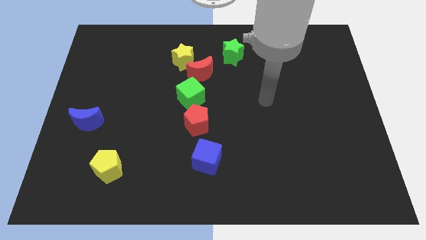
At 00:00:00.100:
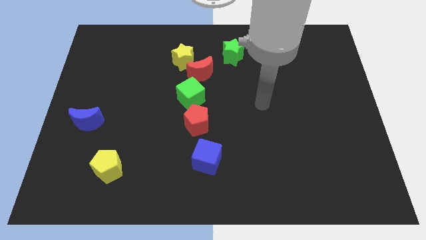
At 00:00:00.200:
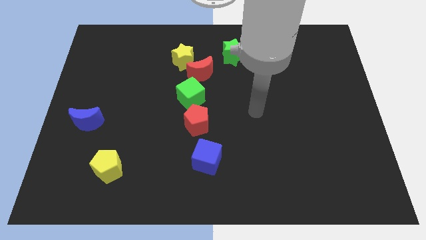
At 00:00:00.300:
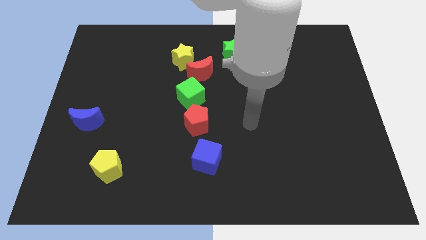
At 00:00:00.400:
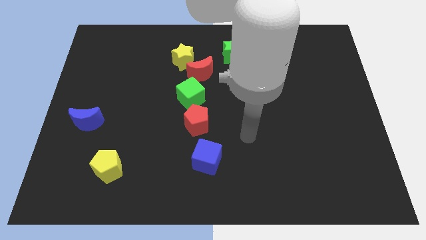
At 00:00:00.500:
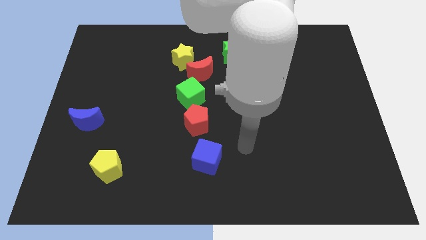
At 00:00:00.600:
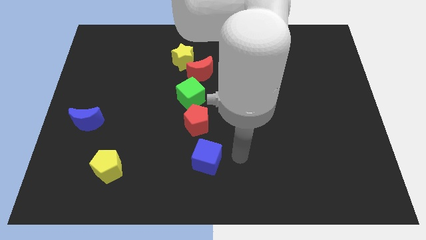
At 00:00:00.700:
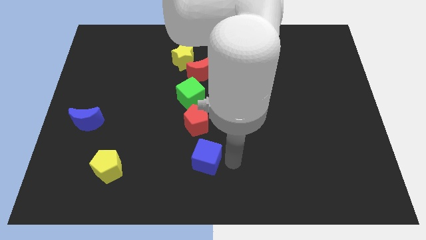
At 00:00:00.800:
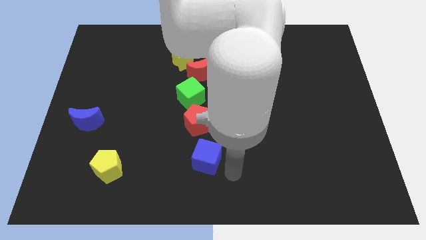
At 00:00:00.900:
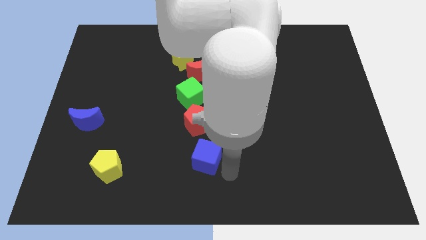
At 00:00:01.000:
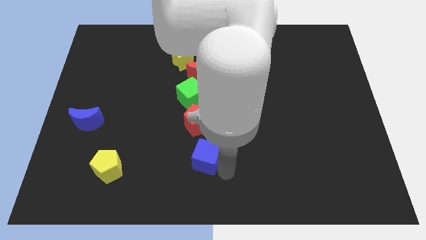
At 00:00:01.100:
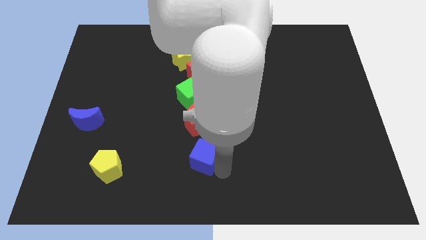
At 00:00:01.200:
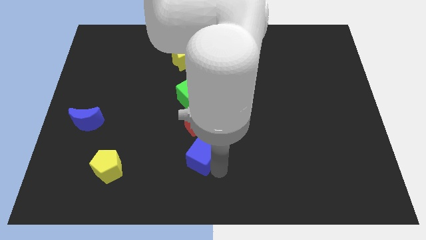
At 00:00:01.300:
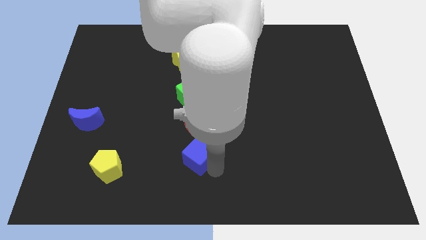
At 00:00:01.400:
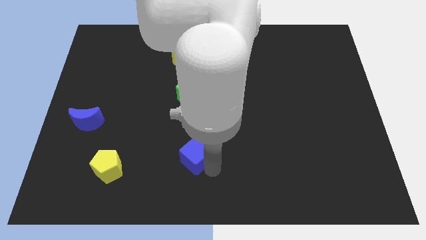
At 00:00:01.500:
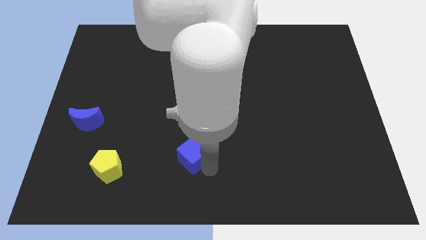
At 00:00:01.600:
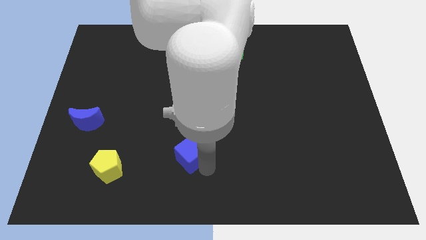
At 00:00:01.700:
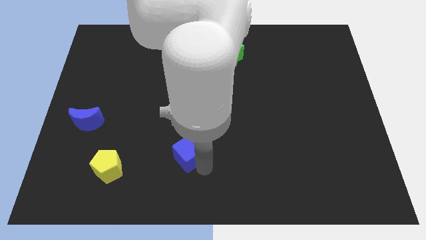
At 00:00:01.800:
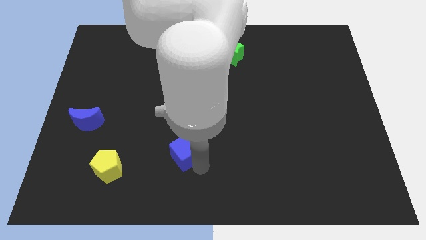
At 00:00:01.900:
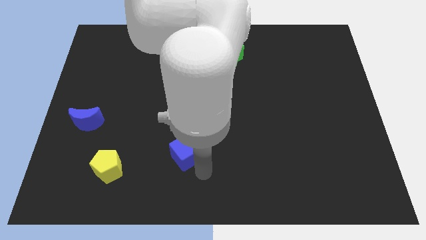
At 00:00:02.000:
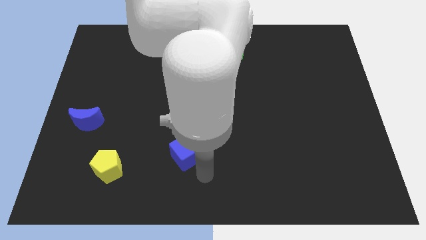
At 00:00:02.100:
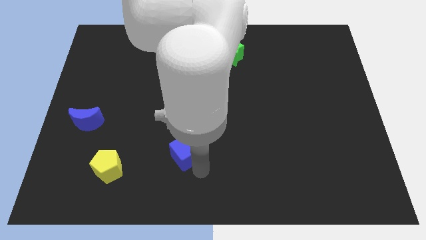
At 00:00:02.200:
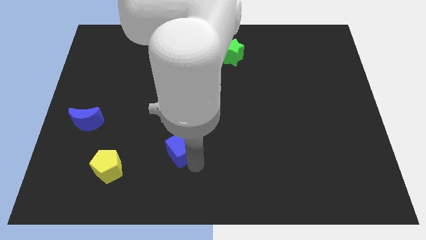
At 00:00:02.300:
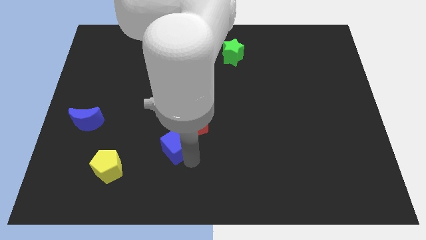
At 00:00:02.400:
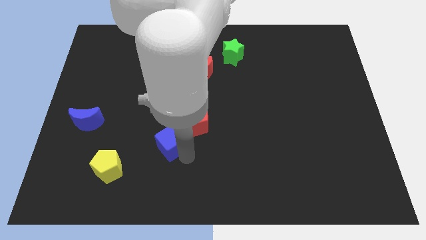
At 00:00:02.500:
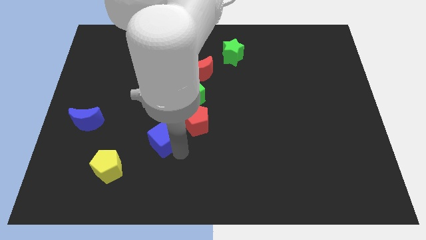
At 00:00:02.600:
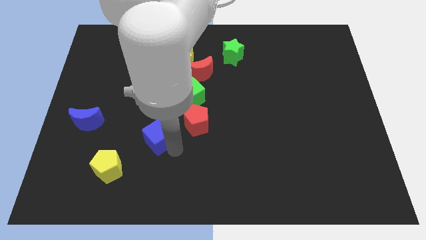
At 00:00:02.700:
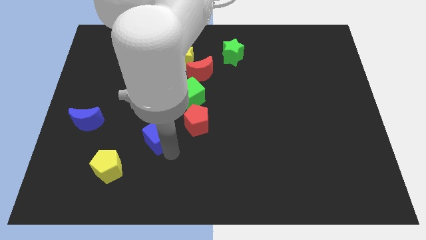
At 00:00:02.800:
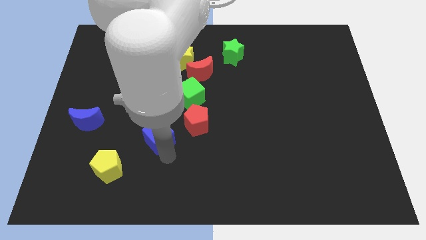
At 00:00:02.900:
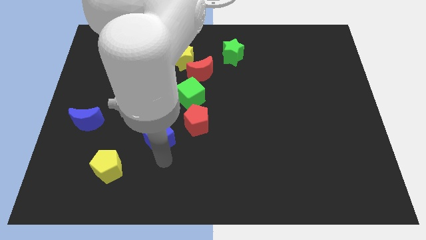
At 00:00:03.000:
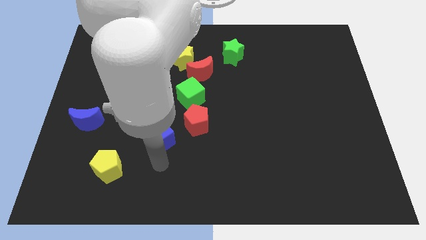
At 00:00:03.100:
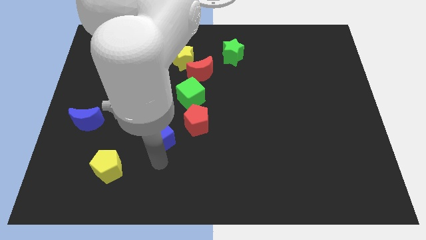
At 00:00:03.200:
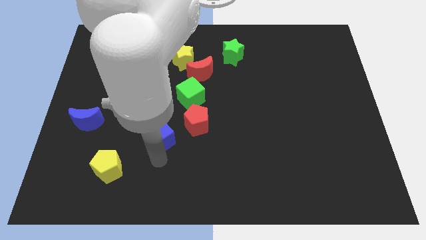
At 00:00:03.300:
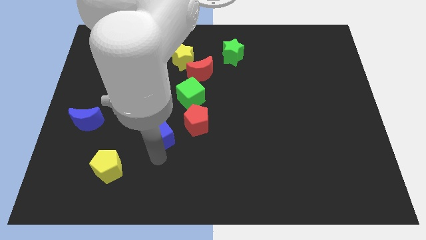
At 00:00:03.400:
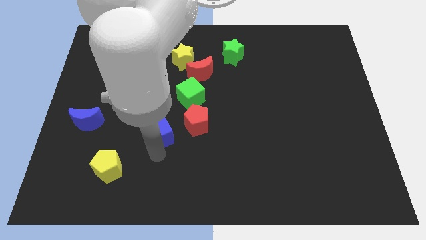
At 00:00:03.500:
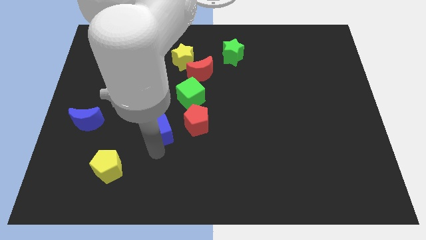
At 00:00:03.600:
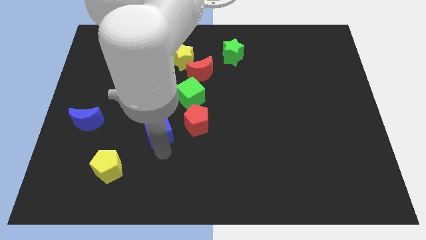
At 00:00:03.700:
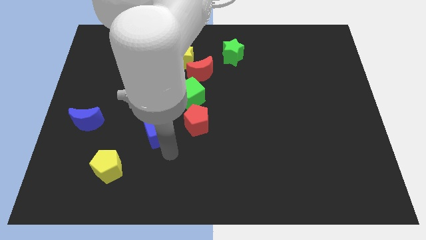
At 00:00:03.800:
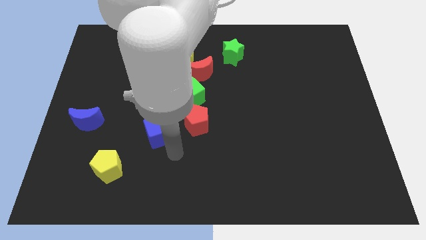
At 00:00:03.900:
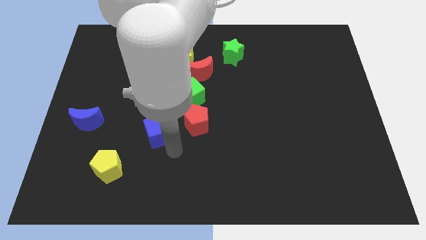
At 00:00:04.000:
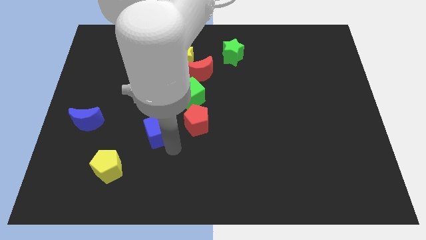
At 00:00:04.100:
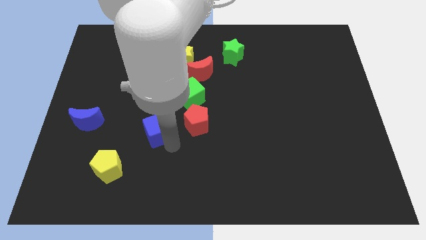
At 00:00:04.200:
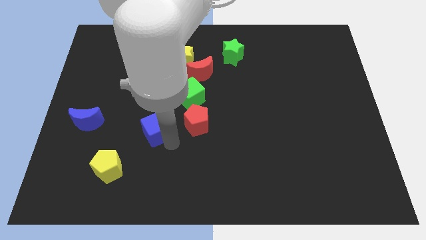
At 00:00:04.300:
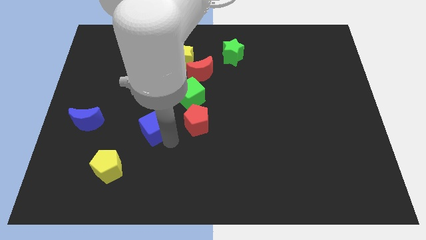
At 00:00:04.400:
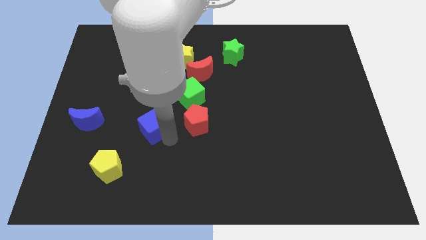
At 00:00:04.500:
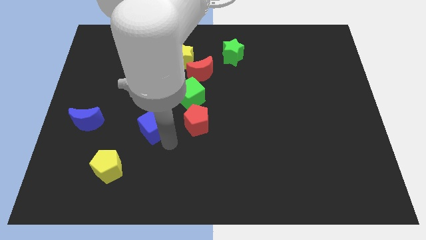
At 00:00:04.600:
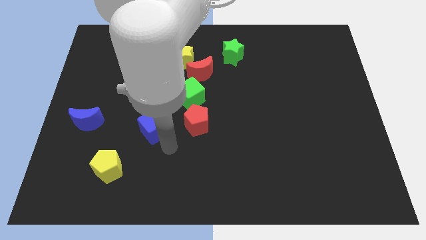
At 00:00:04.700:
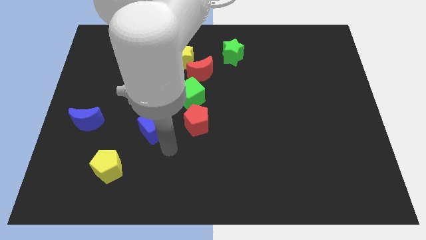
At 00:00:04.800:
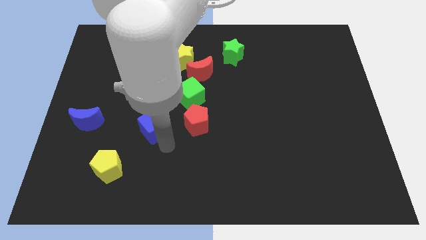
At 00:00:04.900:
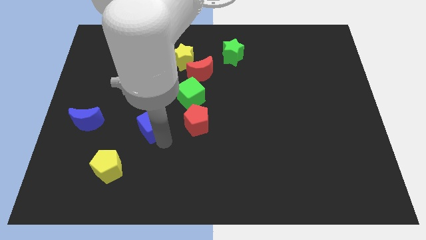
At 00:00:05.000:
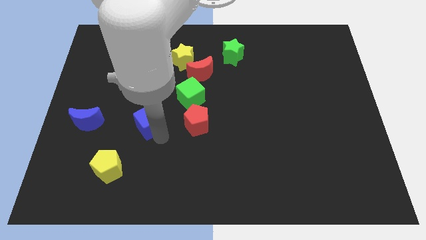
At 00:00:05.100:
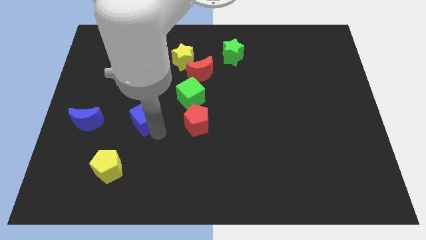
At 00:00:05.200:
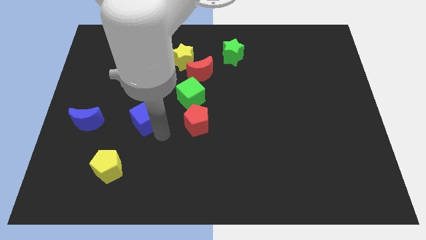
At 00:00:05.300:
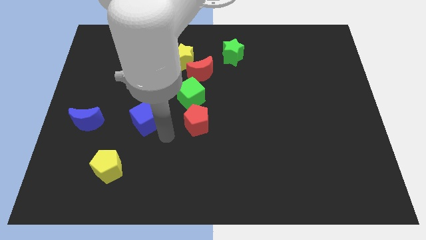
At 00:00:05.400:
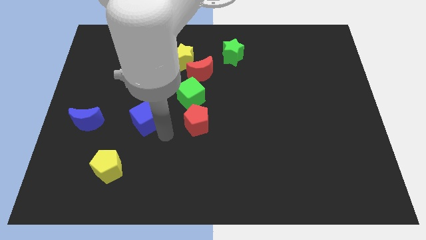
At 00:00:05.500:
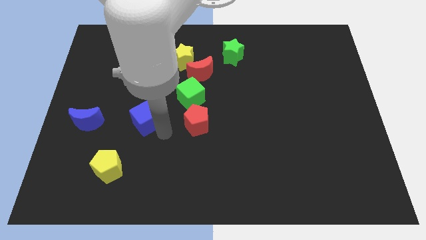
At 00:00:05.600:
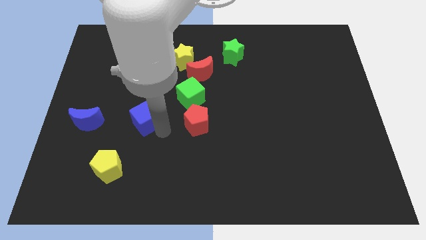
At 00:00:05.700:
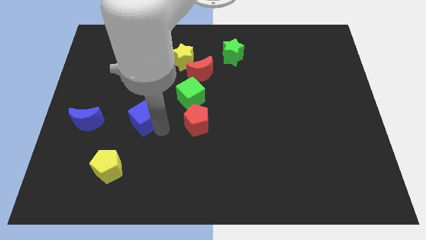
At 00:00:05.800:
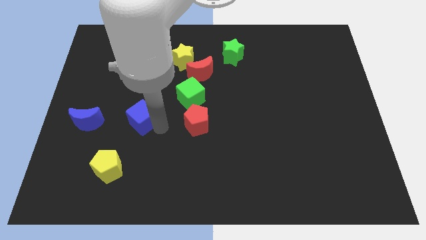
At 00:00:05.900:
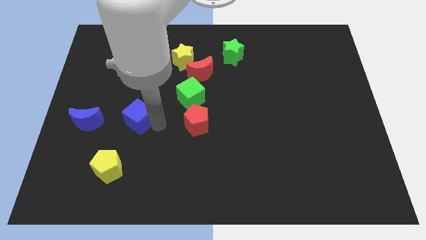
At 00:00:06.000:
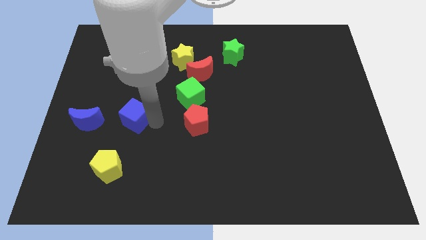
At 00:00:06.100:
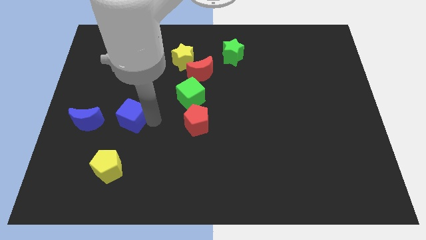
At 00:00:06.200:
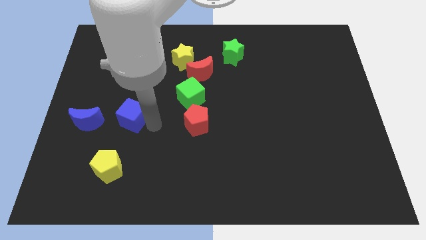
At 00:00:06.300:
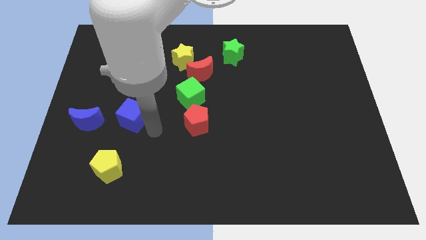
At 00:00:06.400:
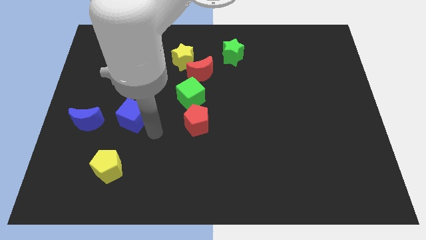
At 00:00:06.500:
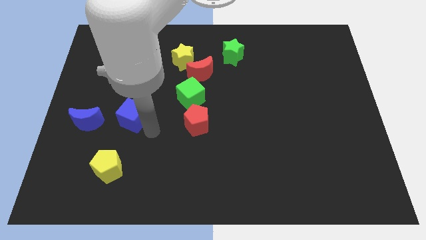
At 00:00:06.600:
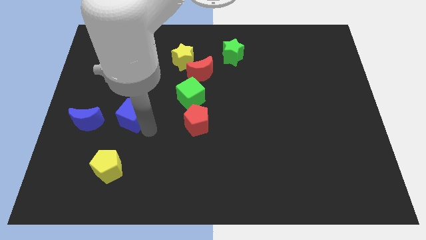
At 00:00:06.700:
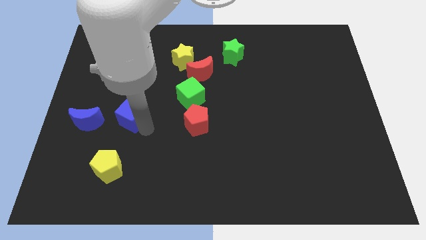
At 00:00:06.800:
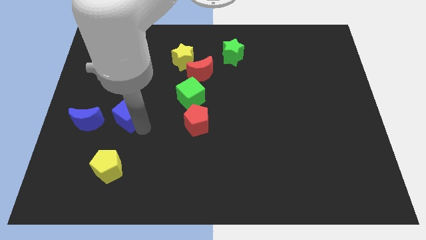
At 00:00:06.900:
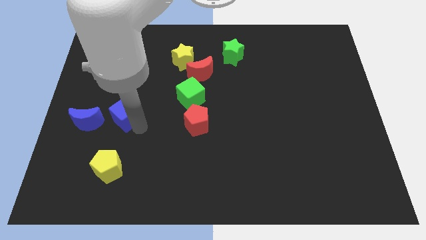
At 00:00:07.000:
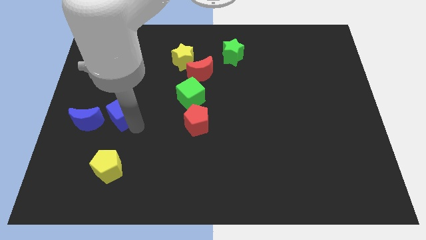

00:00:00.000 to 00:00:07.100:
slide the blue cube diagonally up and to the right of the blue moon
